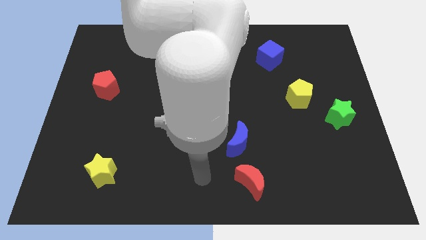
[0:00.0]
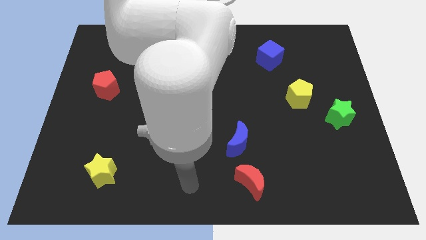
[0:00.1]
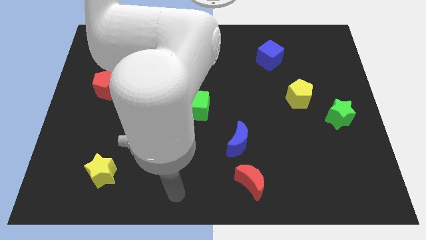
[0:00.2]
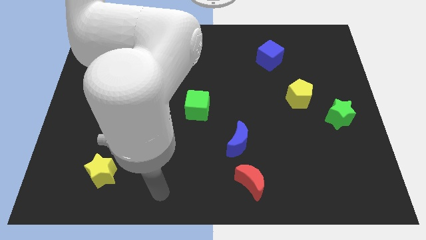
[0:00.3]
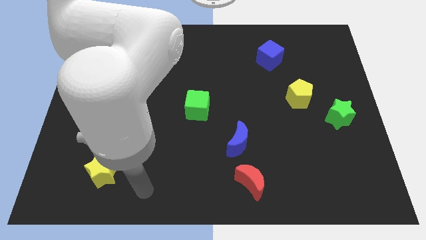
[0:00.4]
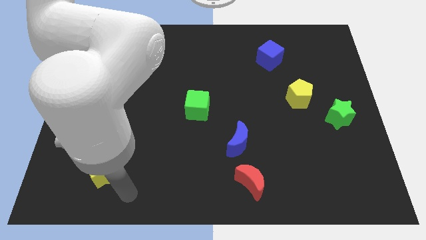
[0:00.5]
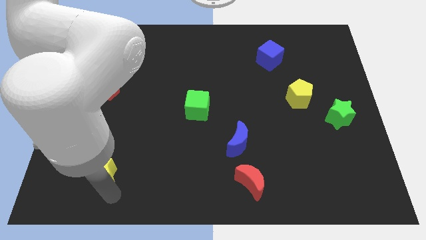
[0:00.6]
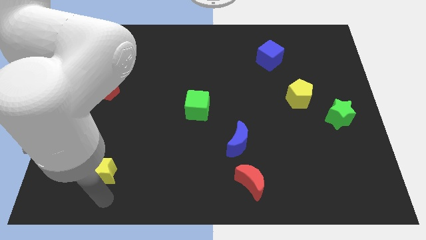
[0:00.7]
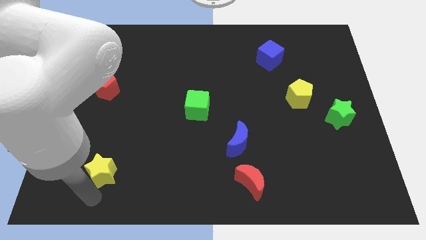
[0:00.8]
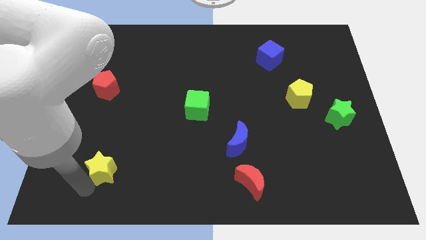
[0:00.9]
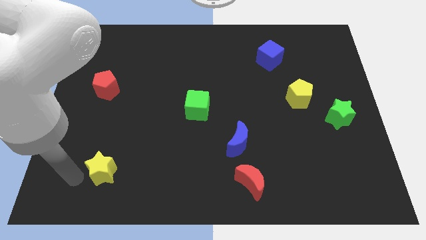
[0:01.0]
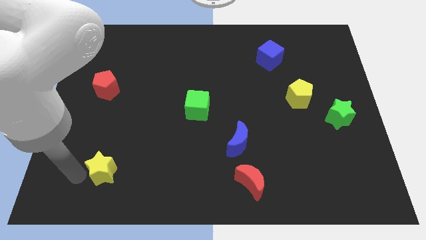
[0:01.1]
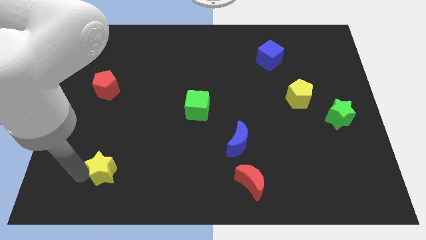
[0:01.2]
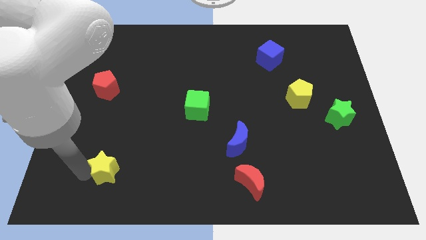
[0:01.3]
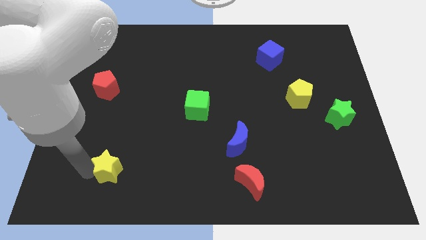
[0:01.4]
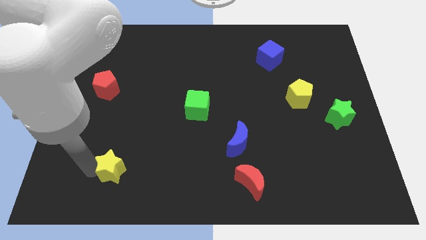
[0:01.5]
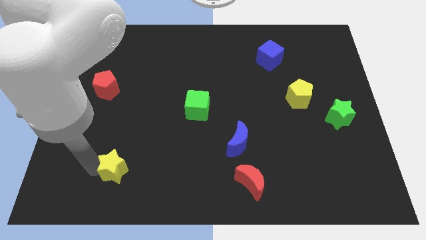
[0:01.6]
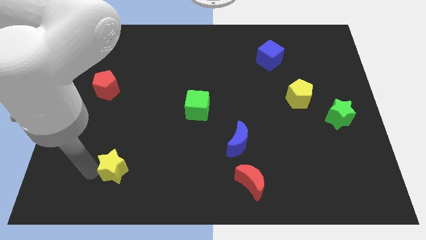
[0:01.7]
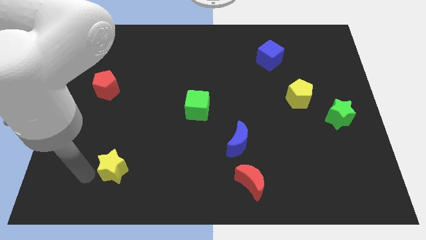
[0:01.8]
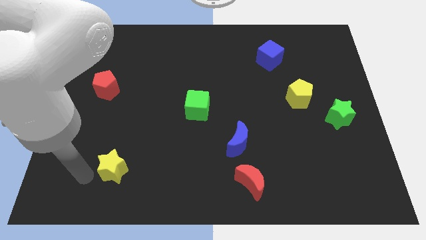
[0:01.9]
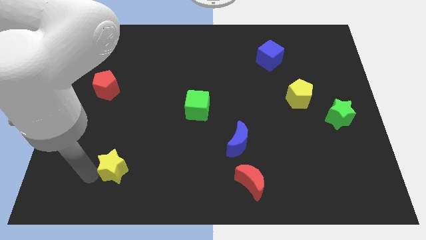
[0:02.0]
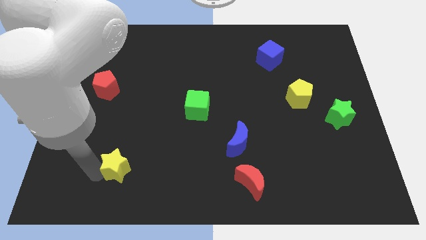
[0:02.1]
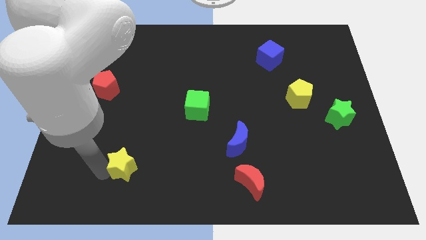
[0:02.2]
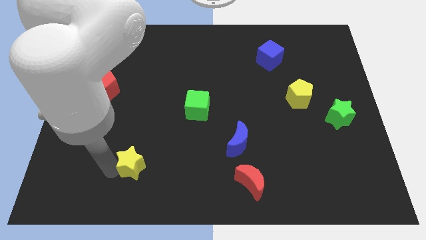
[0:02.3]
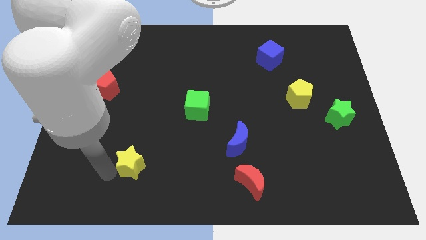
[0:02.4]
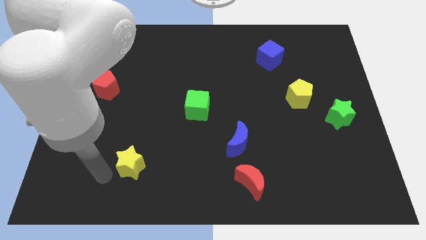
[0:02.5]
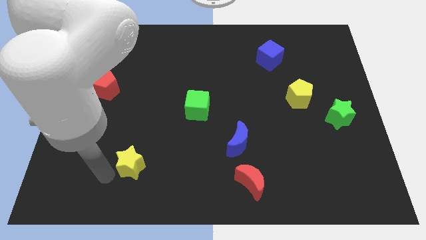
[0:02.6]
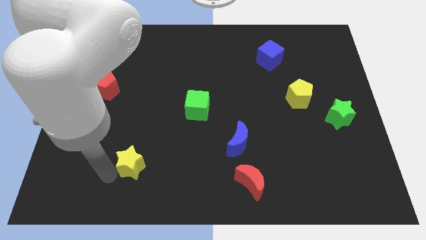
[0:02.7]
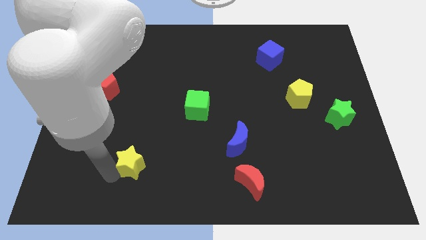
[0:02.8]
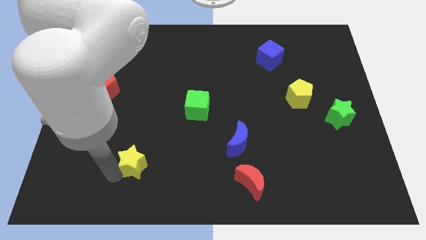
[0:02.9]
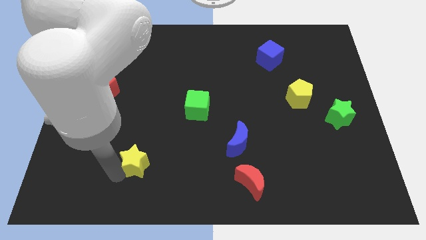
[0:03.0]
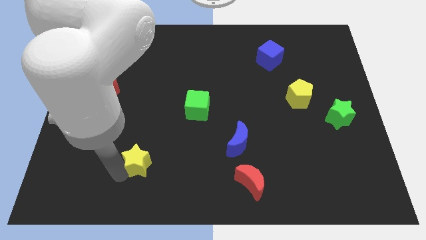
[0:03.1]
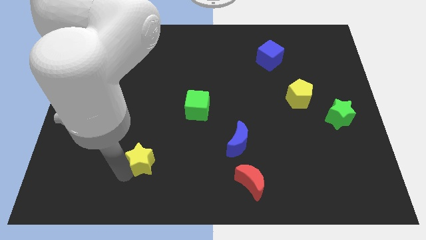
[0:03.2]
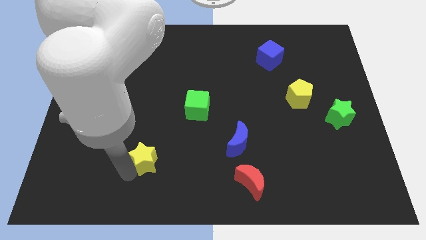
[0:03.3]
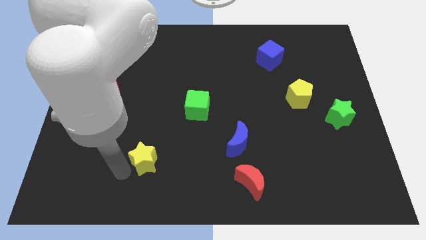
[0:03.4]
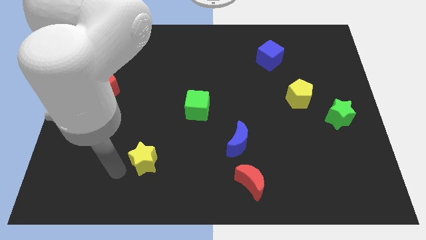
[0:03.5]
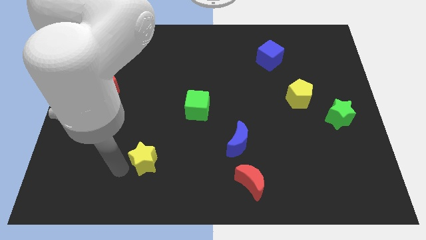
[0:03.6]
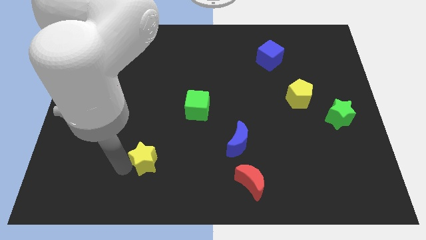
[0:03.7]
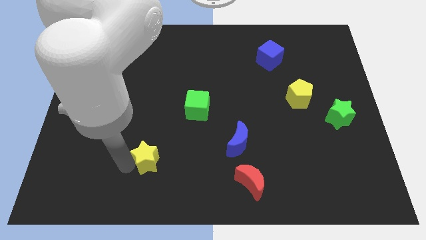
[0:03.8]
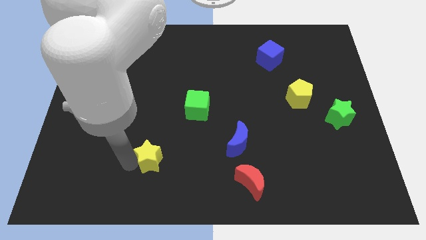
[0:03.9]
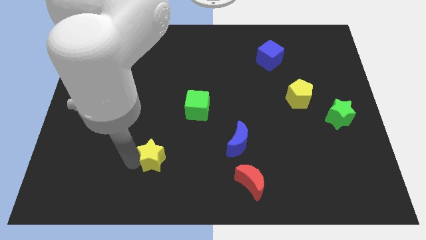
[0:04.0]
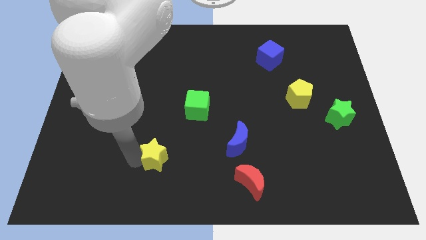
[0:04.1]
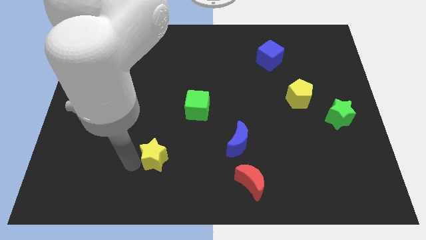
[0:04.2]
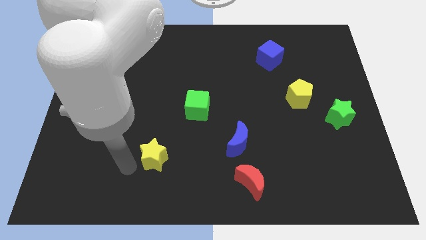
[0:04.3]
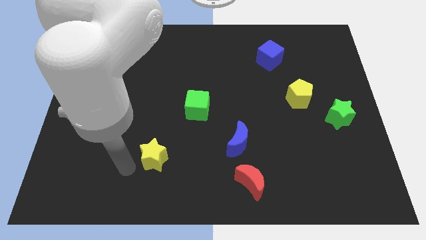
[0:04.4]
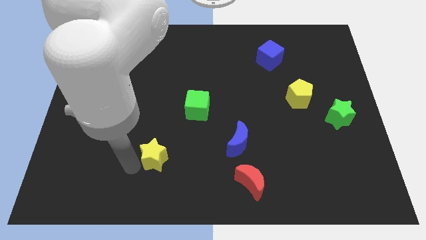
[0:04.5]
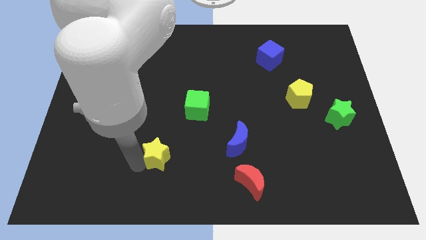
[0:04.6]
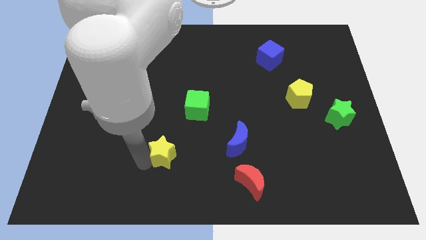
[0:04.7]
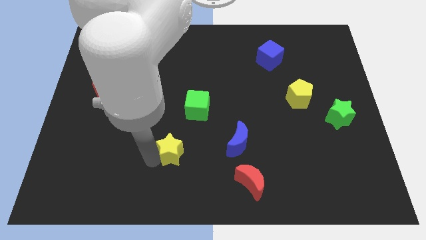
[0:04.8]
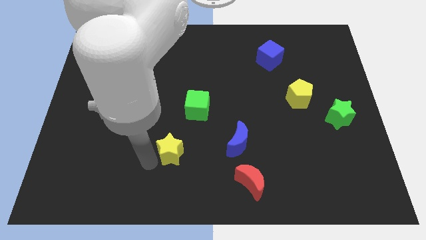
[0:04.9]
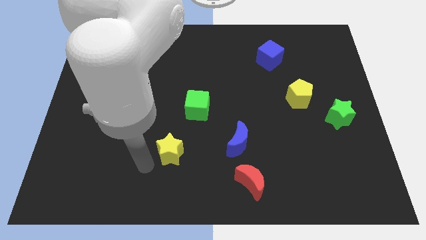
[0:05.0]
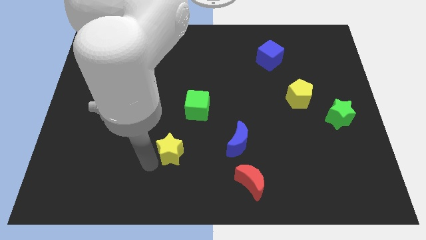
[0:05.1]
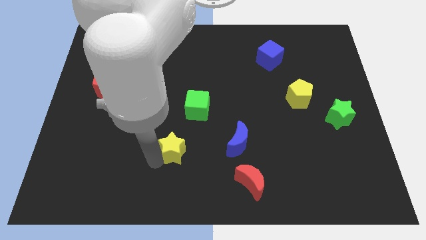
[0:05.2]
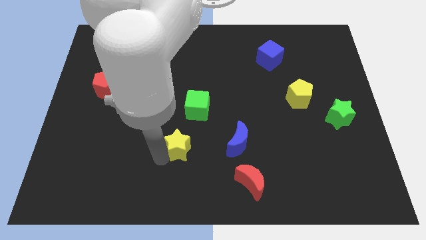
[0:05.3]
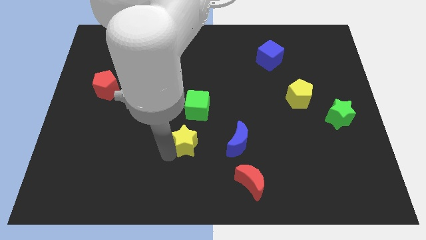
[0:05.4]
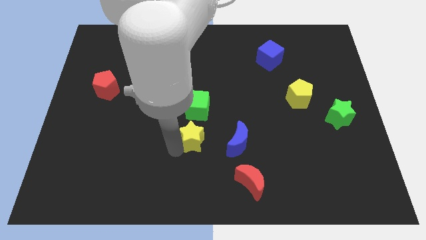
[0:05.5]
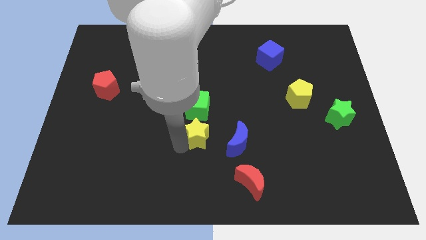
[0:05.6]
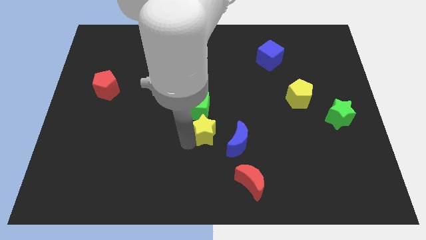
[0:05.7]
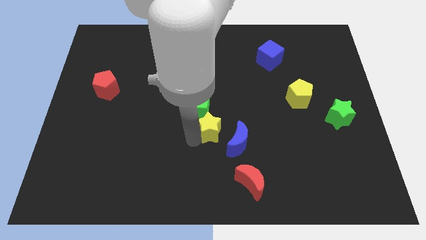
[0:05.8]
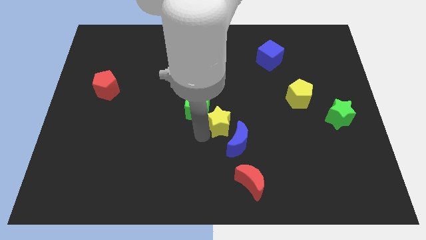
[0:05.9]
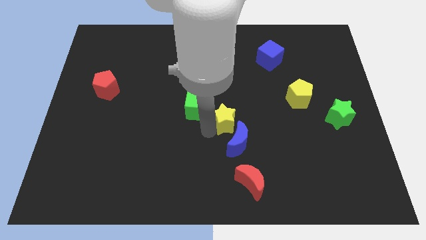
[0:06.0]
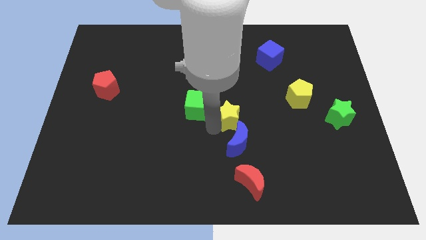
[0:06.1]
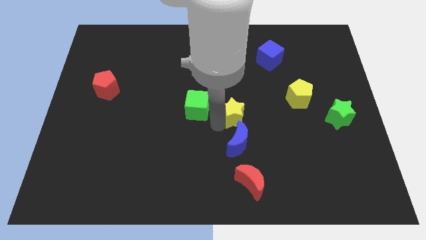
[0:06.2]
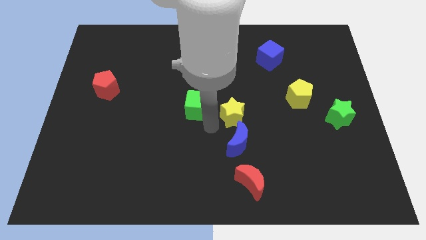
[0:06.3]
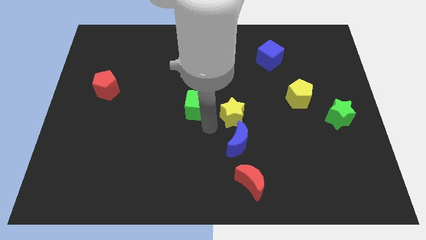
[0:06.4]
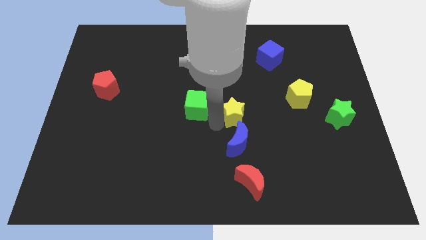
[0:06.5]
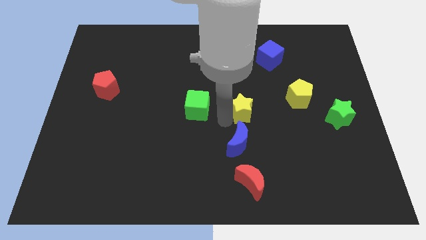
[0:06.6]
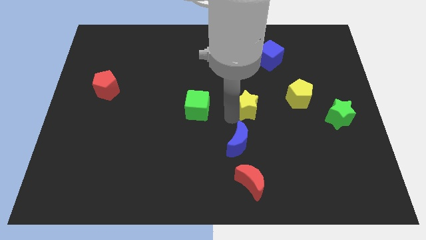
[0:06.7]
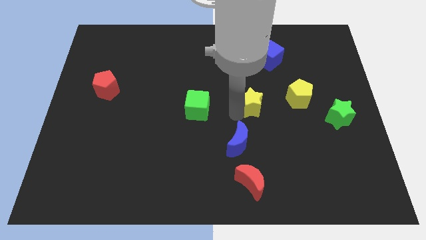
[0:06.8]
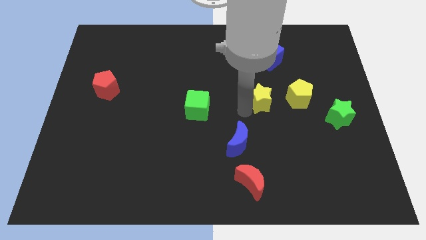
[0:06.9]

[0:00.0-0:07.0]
move the yellow star to the bottom side of the blue cube
